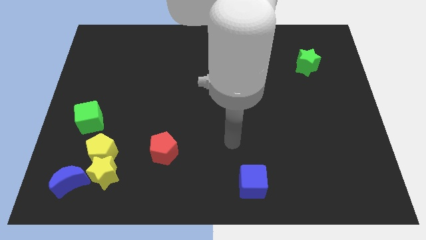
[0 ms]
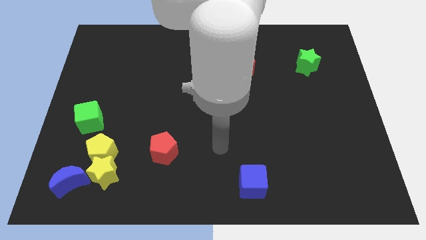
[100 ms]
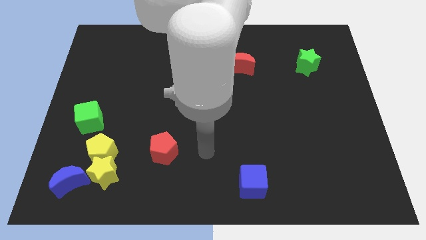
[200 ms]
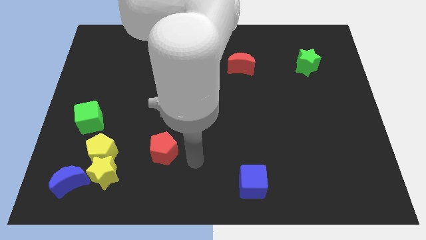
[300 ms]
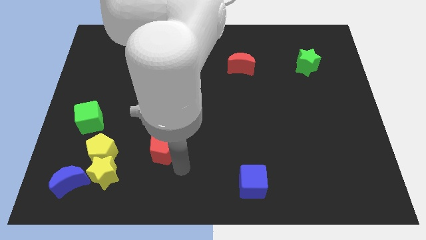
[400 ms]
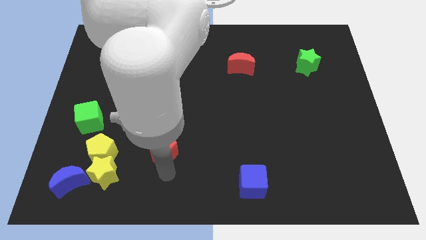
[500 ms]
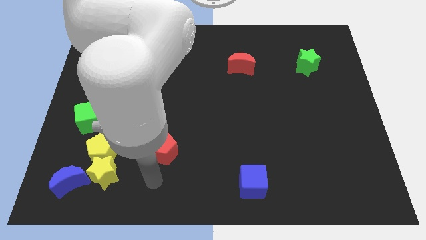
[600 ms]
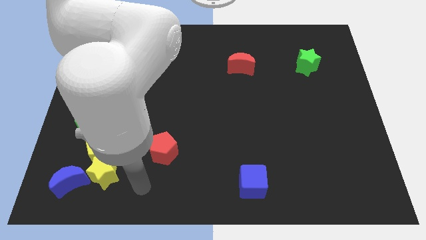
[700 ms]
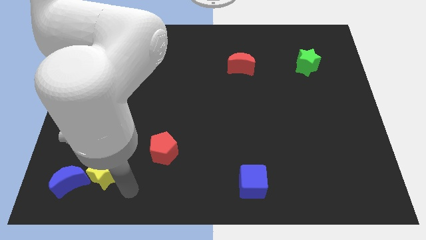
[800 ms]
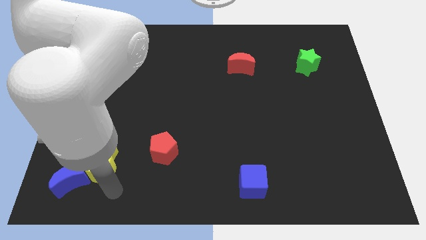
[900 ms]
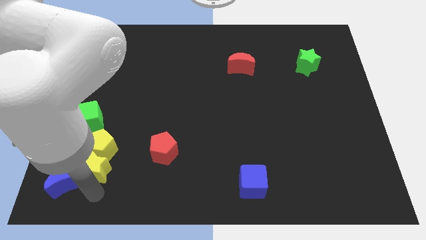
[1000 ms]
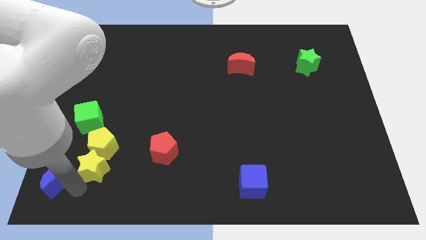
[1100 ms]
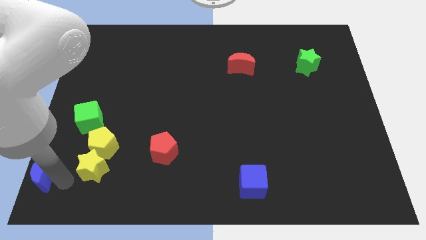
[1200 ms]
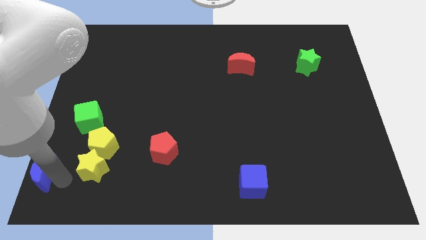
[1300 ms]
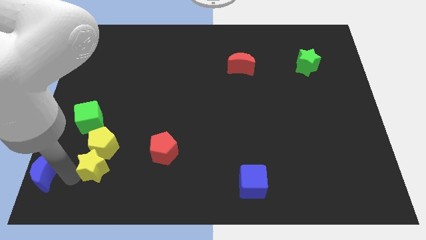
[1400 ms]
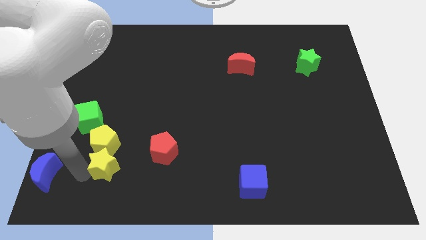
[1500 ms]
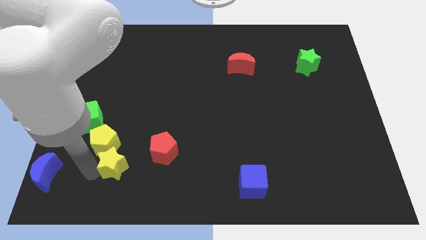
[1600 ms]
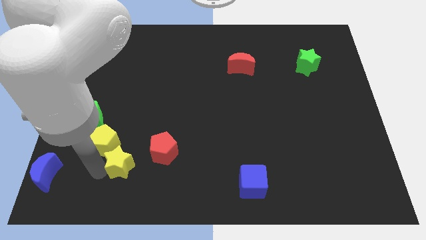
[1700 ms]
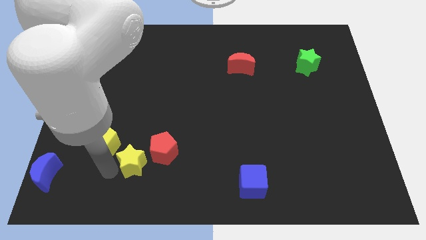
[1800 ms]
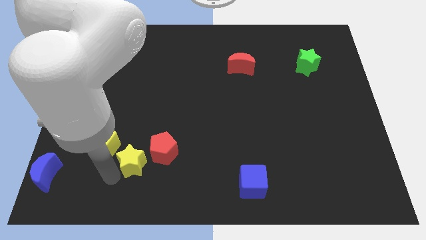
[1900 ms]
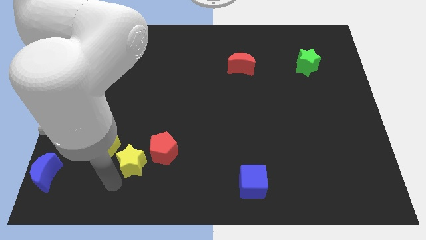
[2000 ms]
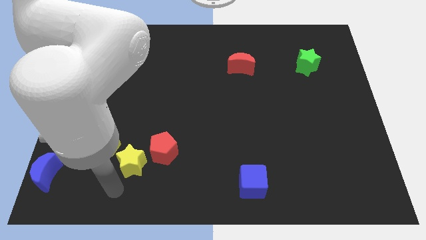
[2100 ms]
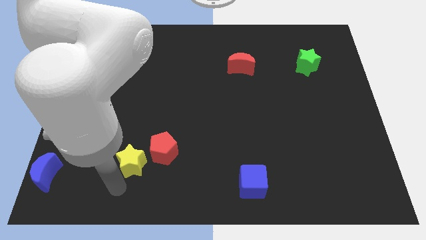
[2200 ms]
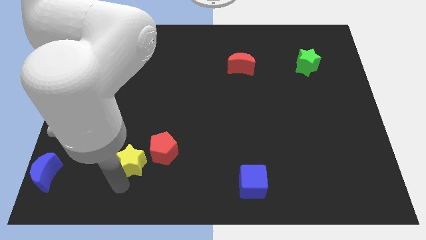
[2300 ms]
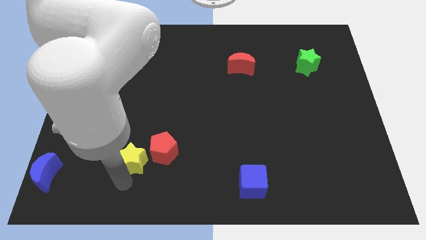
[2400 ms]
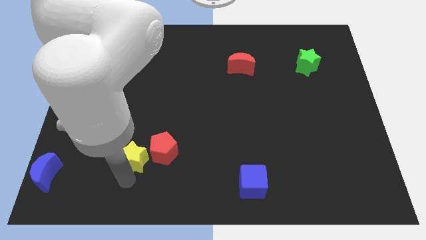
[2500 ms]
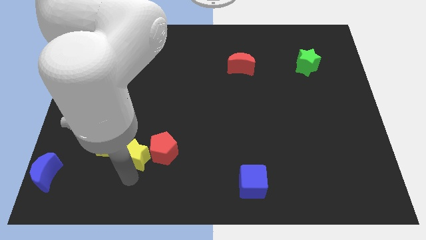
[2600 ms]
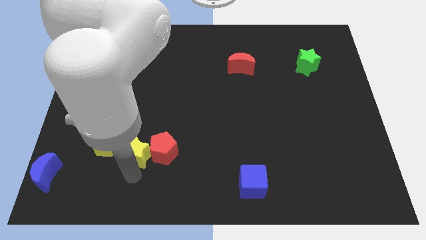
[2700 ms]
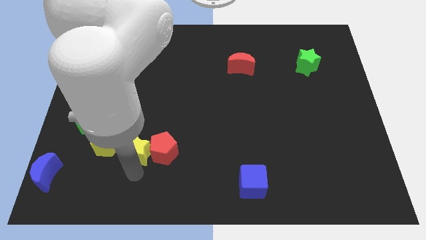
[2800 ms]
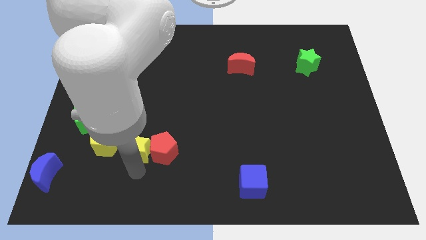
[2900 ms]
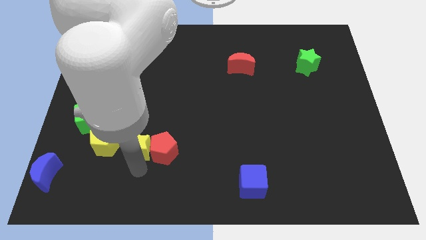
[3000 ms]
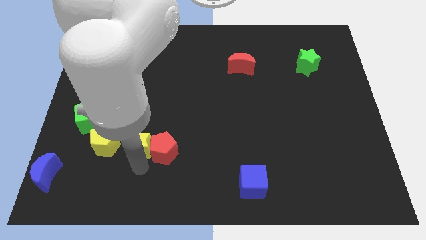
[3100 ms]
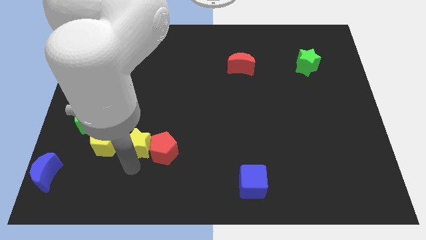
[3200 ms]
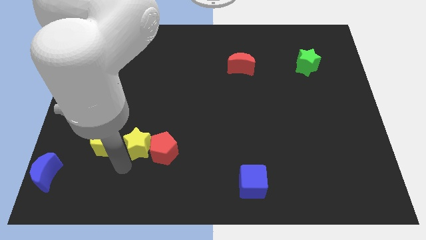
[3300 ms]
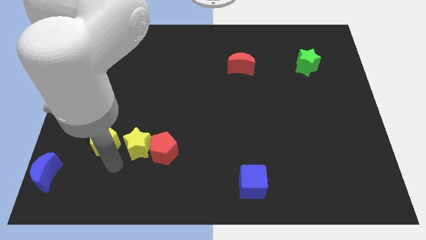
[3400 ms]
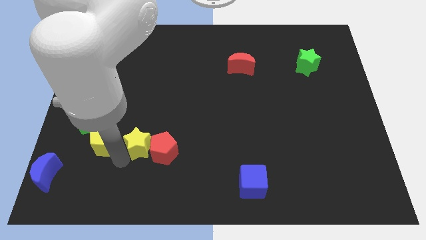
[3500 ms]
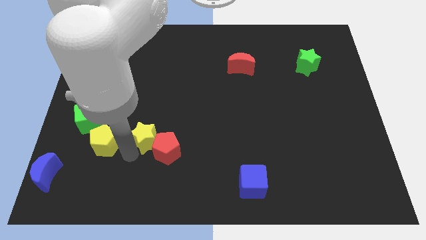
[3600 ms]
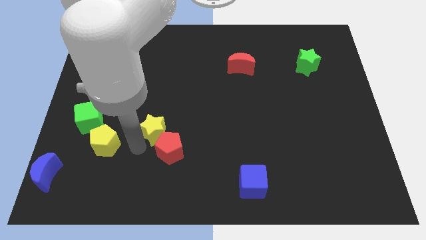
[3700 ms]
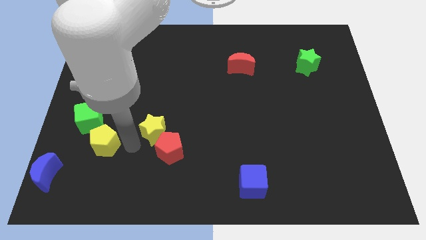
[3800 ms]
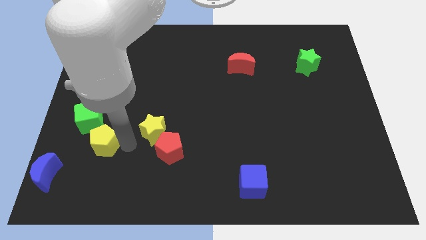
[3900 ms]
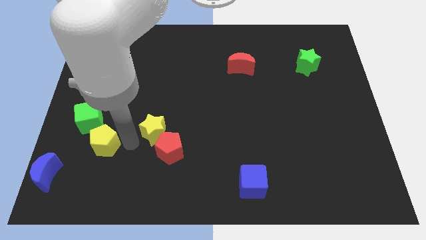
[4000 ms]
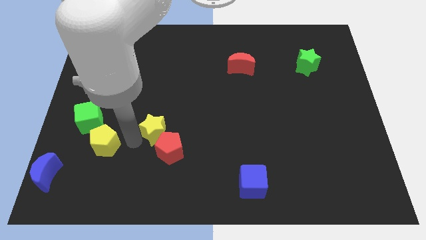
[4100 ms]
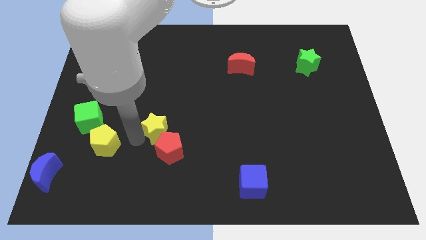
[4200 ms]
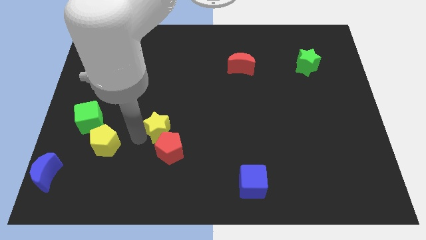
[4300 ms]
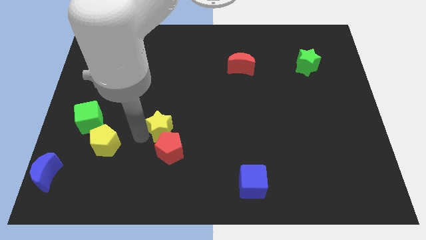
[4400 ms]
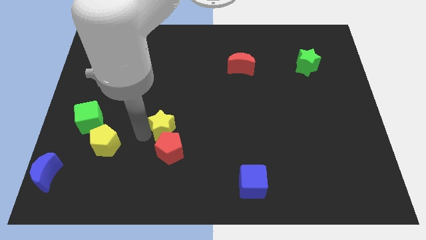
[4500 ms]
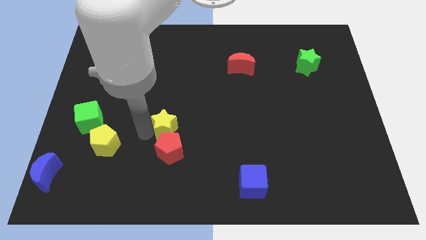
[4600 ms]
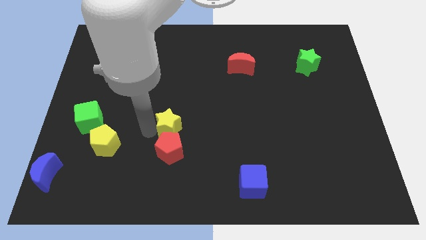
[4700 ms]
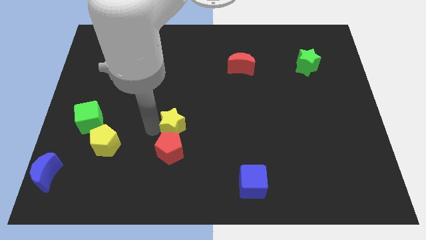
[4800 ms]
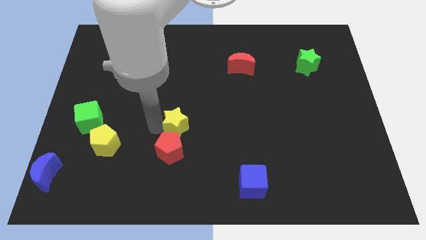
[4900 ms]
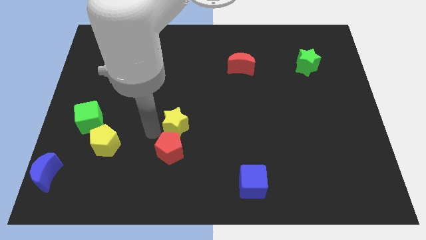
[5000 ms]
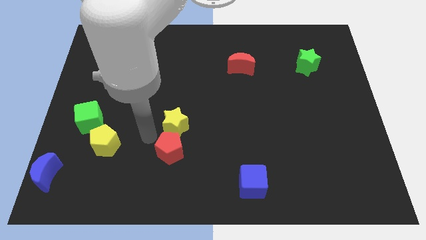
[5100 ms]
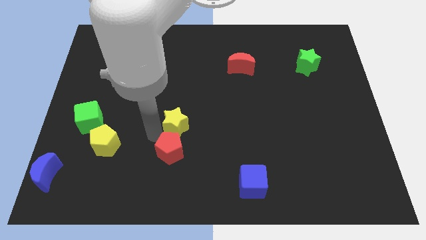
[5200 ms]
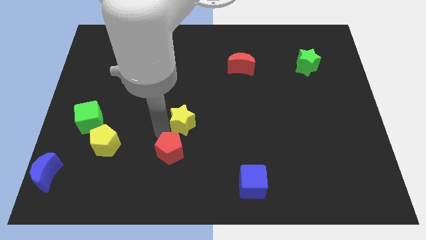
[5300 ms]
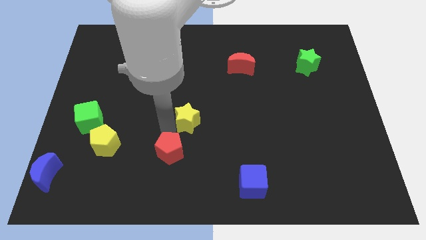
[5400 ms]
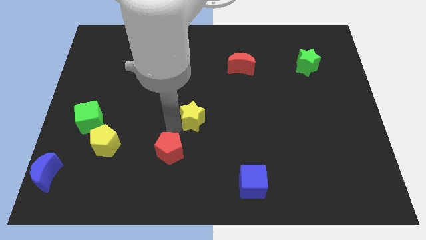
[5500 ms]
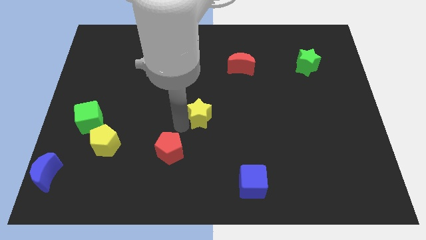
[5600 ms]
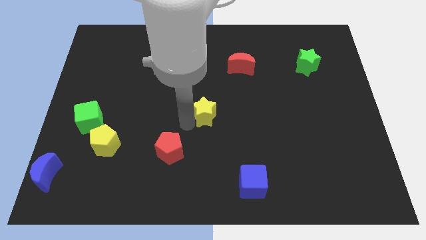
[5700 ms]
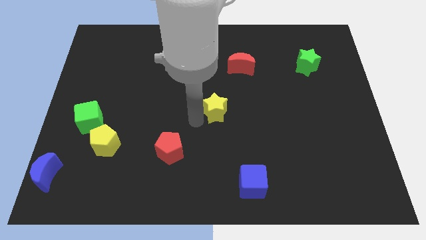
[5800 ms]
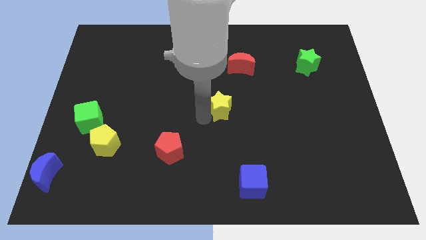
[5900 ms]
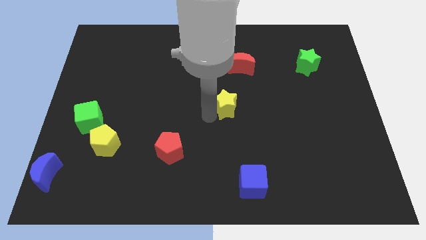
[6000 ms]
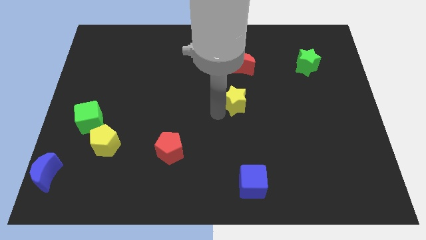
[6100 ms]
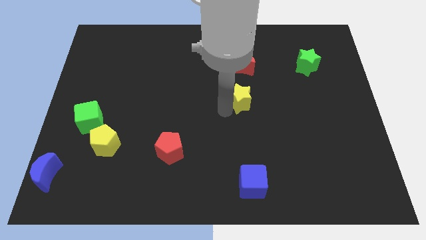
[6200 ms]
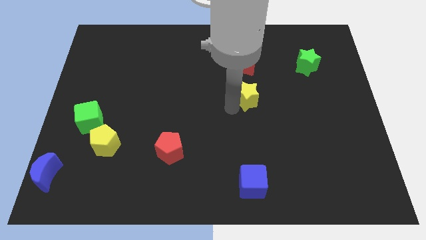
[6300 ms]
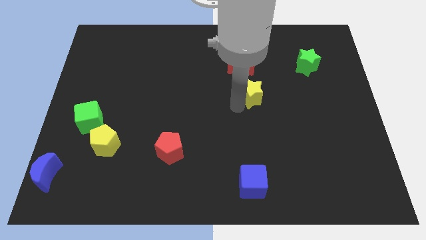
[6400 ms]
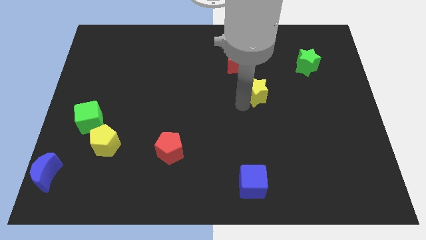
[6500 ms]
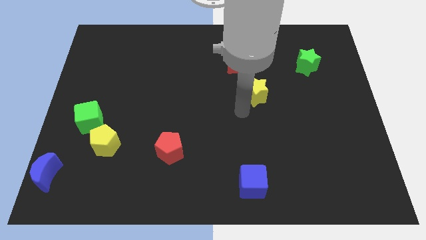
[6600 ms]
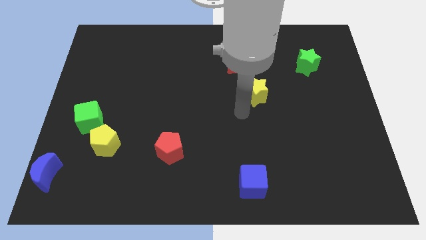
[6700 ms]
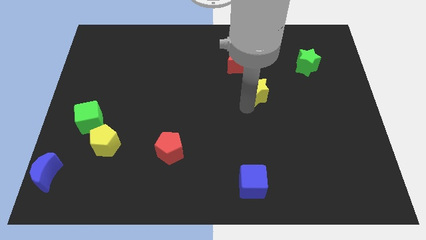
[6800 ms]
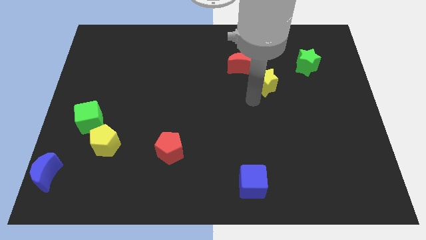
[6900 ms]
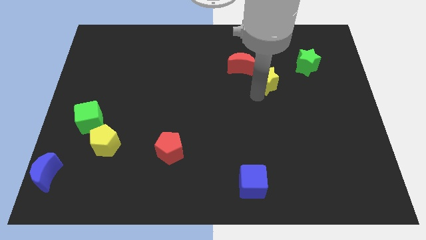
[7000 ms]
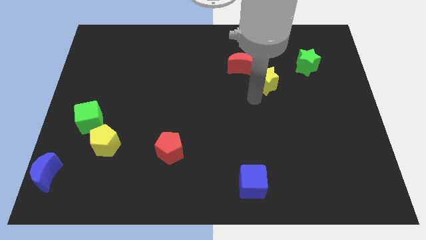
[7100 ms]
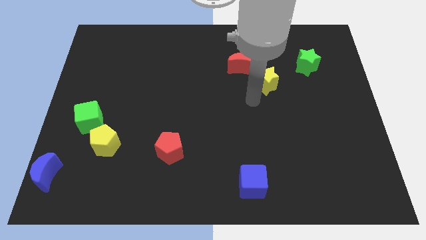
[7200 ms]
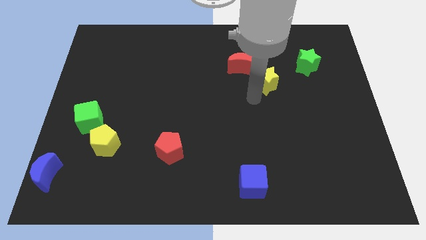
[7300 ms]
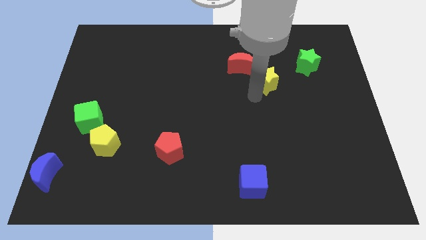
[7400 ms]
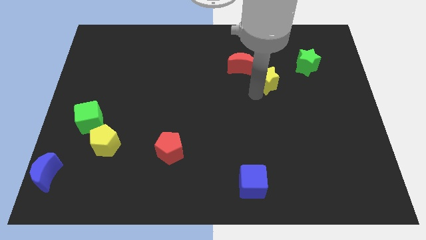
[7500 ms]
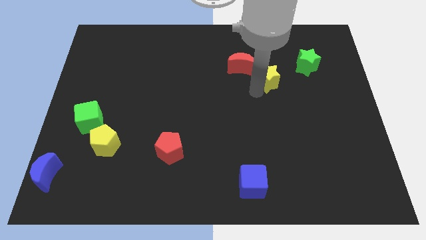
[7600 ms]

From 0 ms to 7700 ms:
slide the yellow star just right of the red moon
